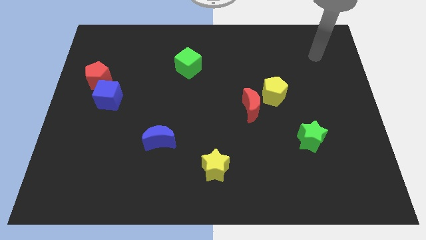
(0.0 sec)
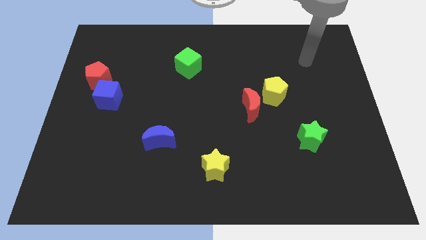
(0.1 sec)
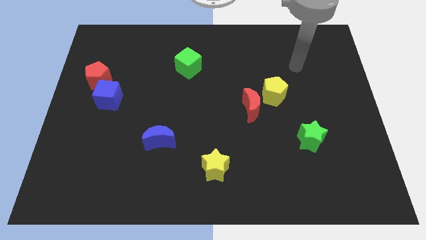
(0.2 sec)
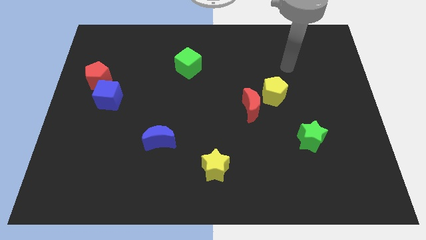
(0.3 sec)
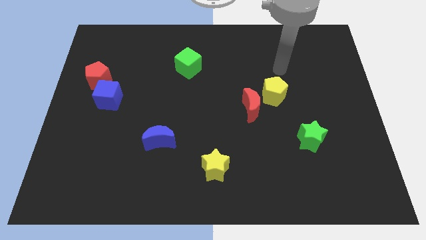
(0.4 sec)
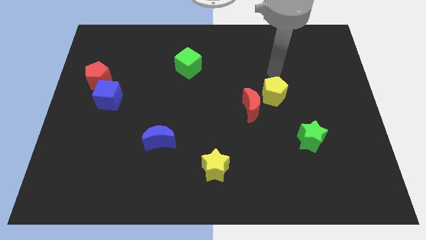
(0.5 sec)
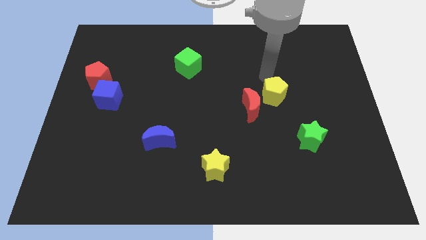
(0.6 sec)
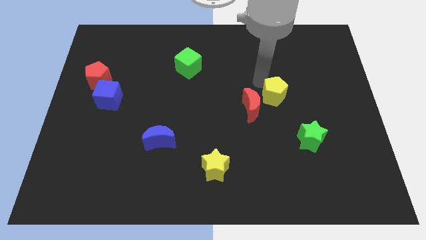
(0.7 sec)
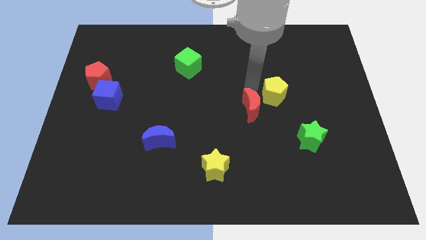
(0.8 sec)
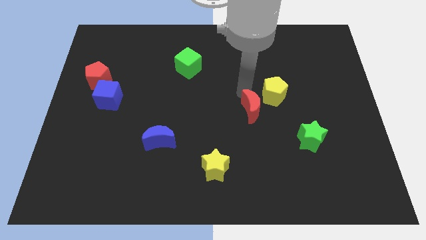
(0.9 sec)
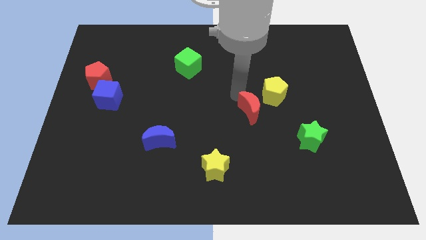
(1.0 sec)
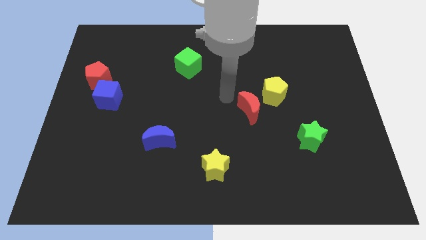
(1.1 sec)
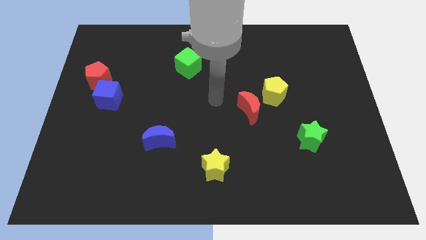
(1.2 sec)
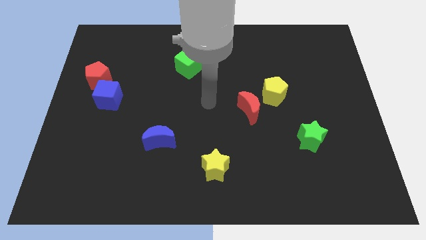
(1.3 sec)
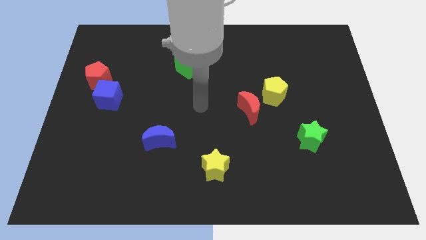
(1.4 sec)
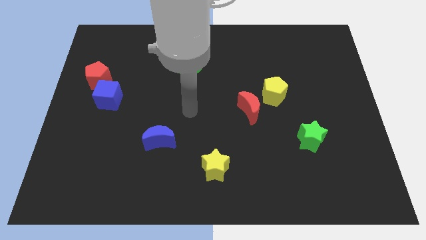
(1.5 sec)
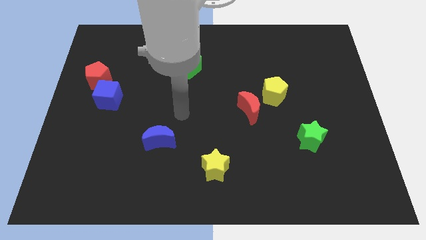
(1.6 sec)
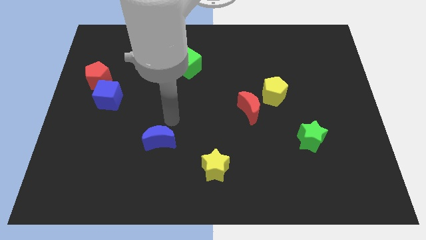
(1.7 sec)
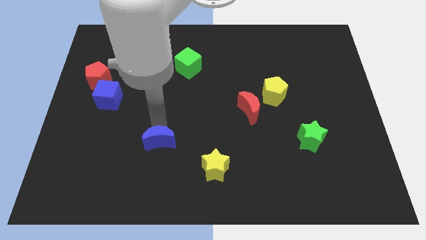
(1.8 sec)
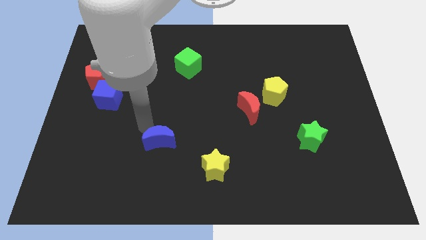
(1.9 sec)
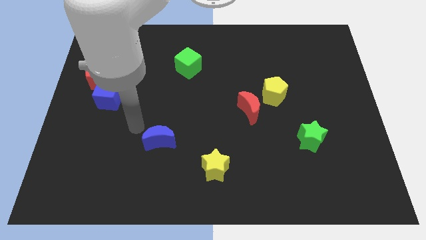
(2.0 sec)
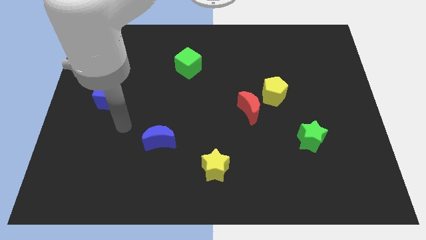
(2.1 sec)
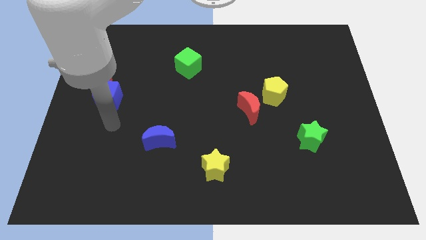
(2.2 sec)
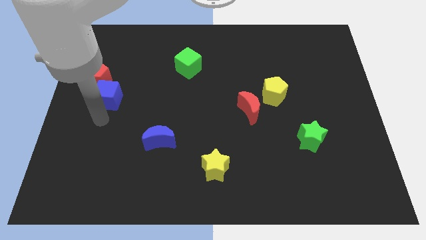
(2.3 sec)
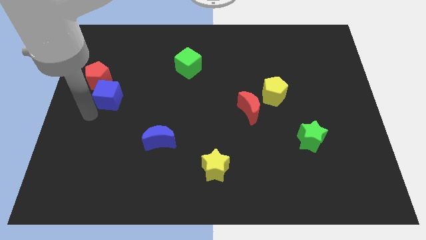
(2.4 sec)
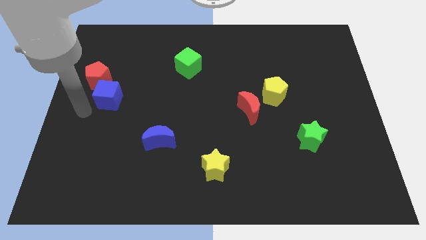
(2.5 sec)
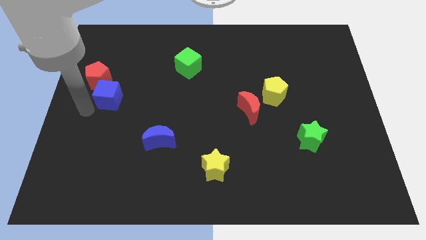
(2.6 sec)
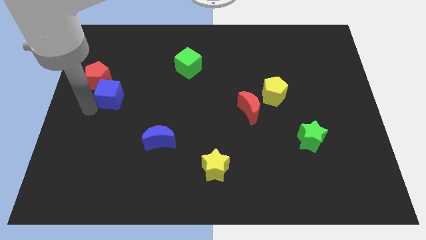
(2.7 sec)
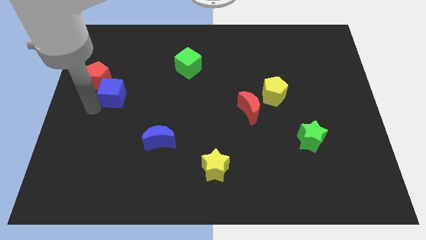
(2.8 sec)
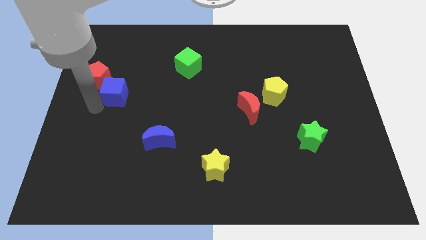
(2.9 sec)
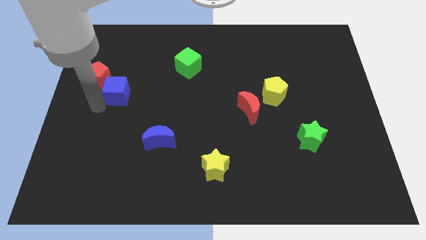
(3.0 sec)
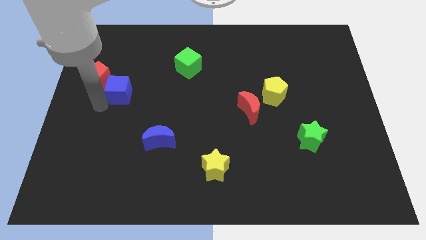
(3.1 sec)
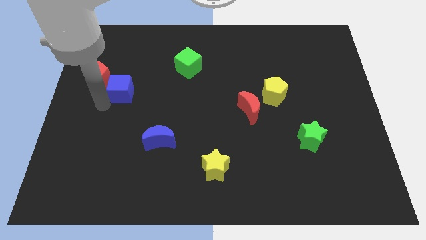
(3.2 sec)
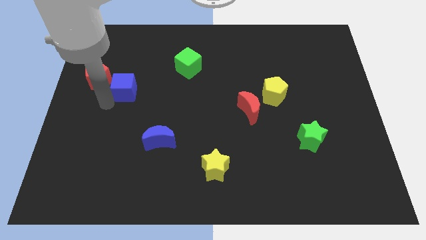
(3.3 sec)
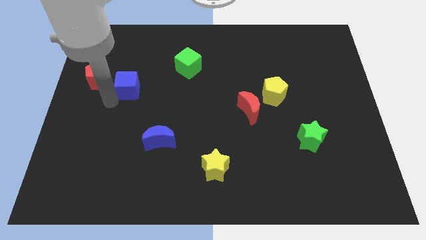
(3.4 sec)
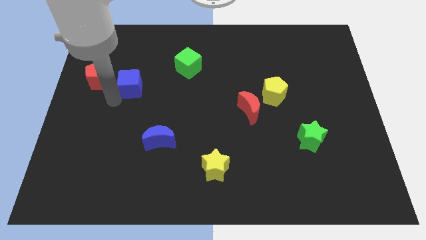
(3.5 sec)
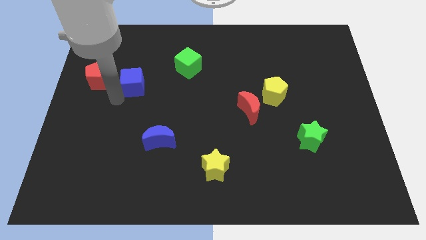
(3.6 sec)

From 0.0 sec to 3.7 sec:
slightly push the blue cube diagonally upwards and to the right

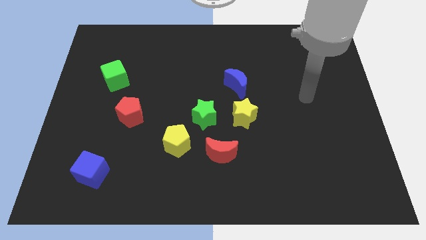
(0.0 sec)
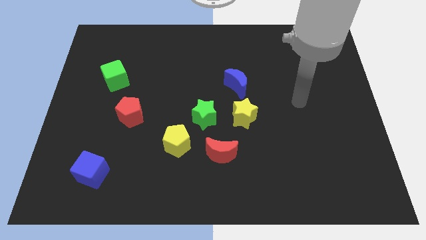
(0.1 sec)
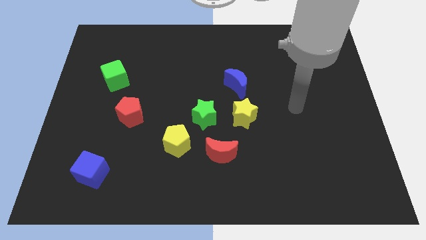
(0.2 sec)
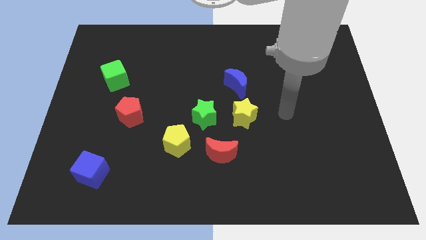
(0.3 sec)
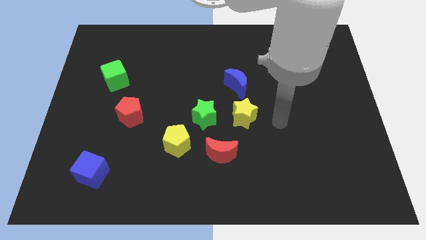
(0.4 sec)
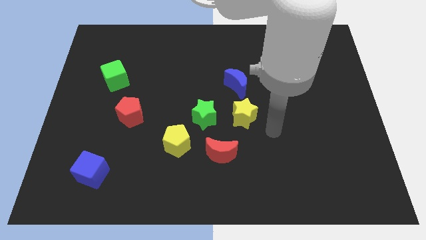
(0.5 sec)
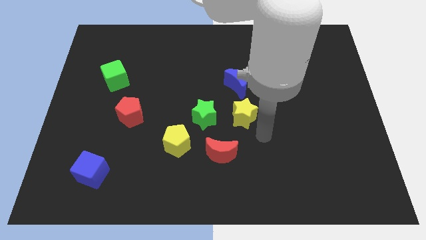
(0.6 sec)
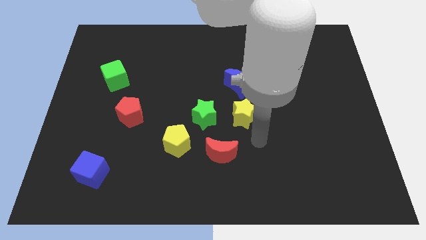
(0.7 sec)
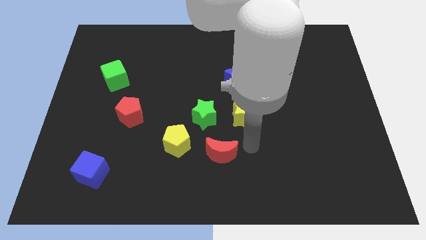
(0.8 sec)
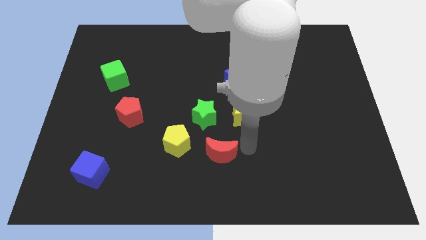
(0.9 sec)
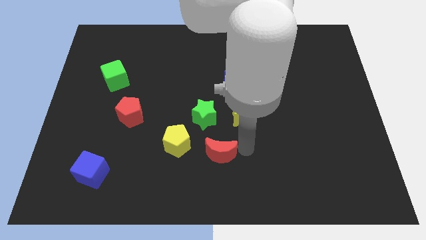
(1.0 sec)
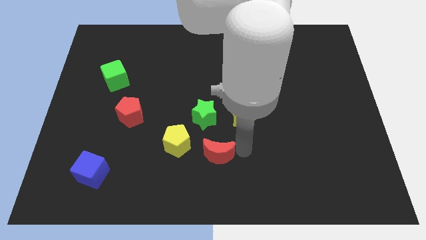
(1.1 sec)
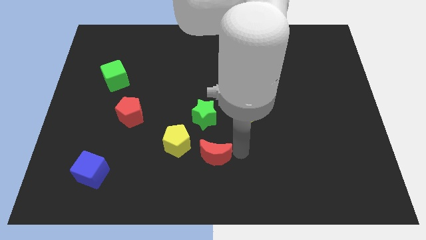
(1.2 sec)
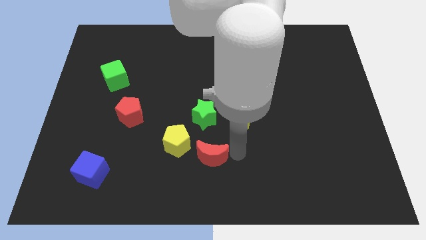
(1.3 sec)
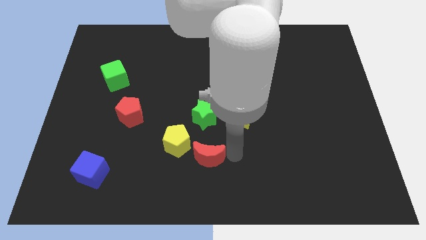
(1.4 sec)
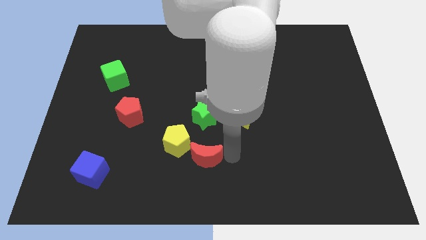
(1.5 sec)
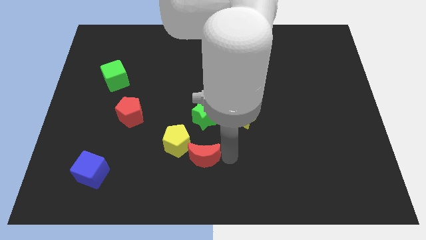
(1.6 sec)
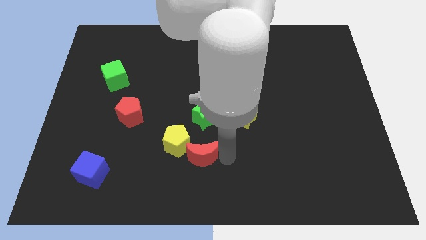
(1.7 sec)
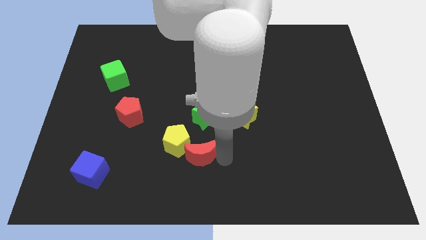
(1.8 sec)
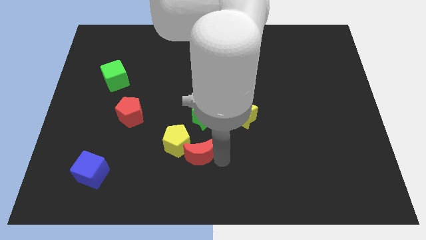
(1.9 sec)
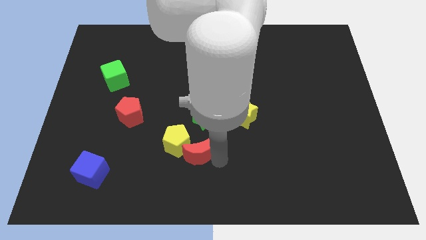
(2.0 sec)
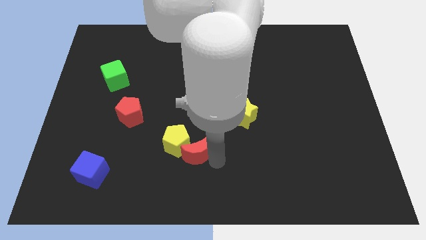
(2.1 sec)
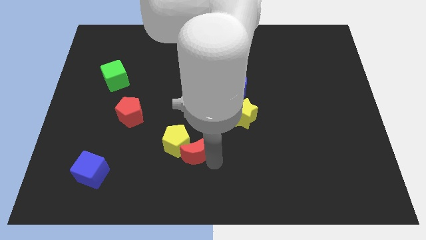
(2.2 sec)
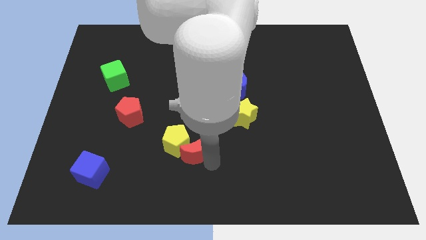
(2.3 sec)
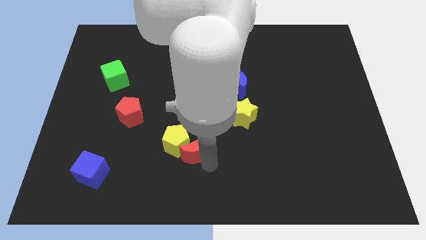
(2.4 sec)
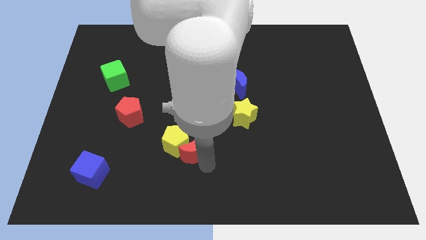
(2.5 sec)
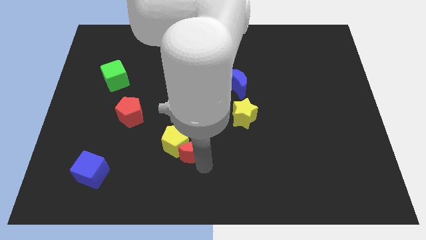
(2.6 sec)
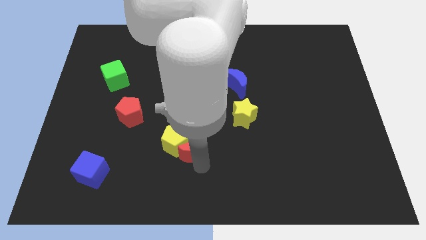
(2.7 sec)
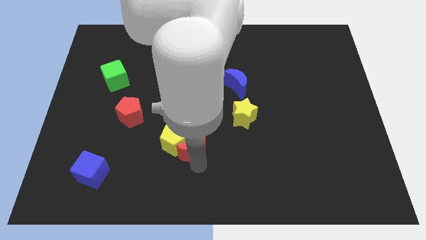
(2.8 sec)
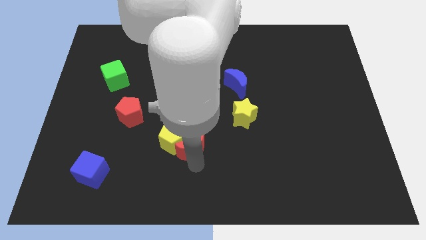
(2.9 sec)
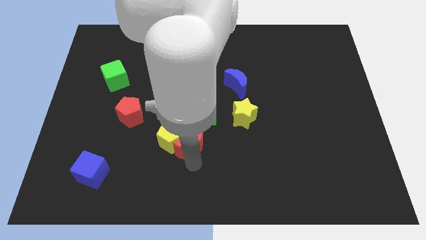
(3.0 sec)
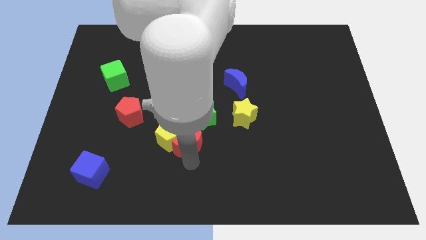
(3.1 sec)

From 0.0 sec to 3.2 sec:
slide the red moon a bit to the left

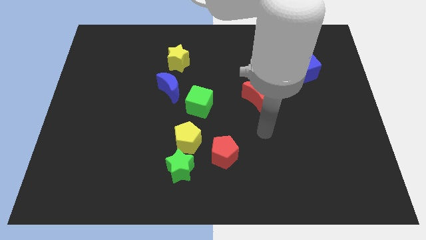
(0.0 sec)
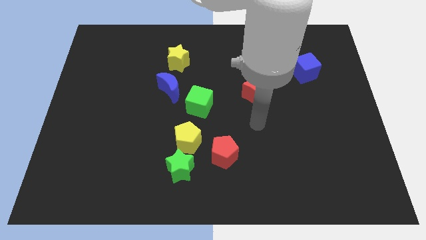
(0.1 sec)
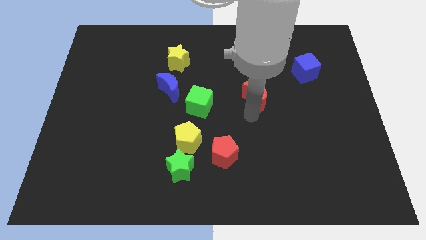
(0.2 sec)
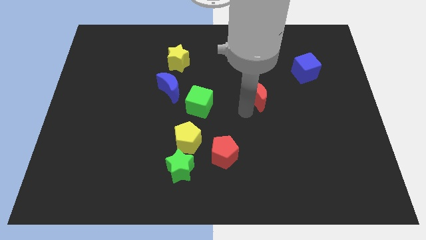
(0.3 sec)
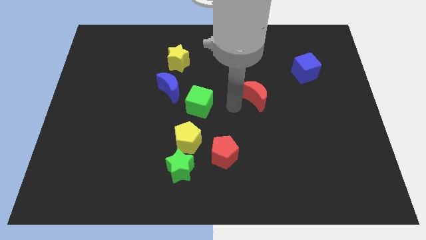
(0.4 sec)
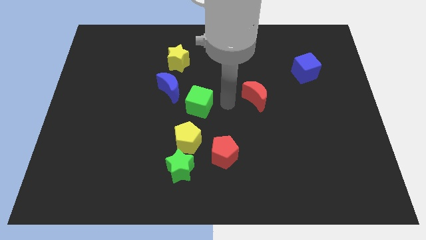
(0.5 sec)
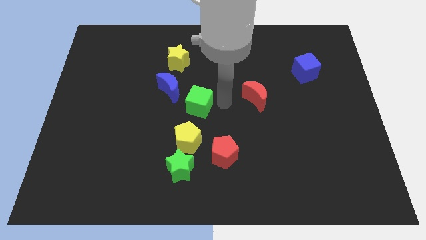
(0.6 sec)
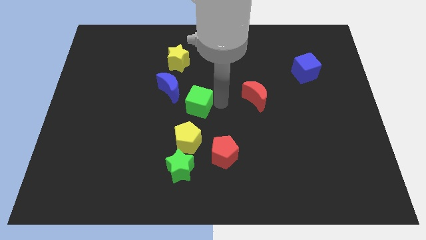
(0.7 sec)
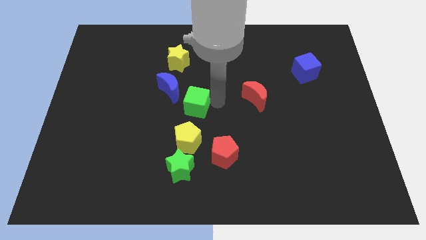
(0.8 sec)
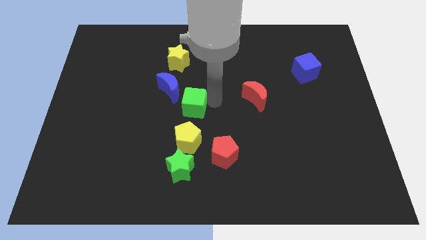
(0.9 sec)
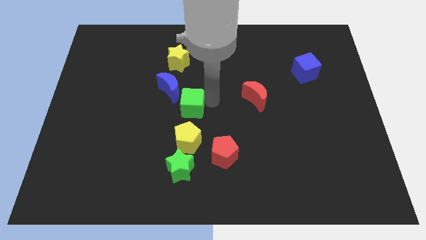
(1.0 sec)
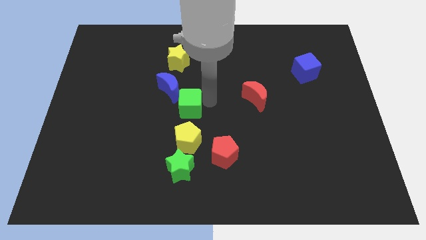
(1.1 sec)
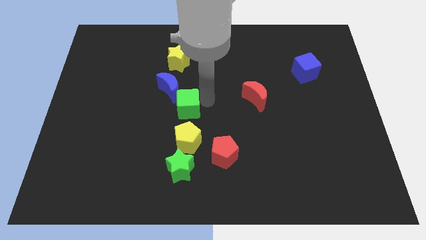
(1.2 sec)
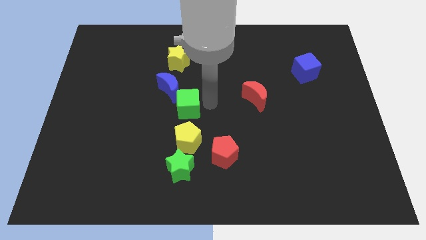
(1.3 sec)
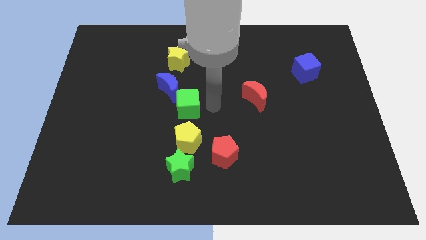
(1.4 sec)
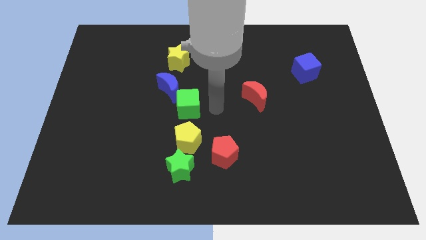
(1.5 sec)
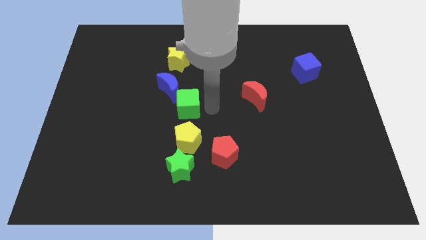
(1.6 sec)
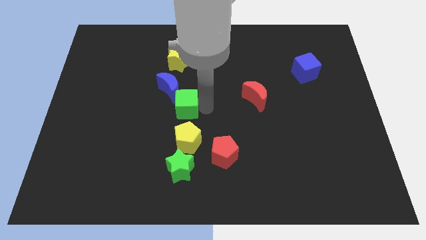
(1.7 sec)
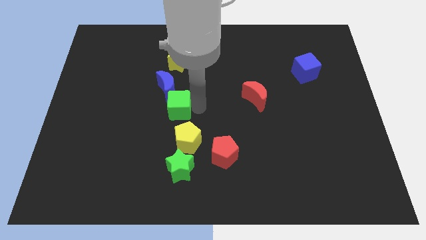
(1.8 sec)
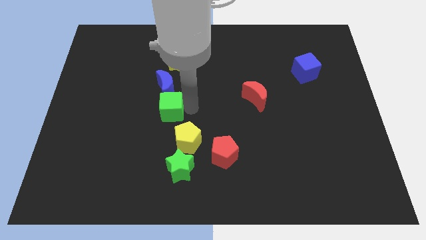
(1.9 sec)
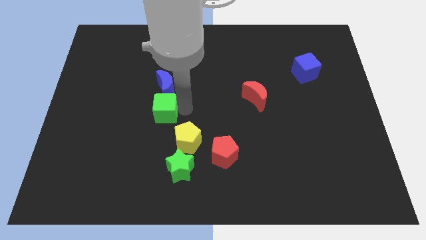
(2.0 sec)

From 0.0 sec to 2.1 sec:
slide the green cube left a little bit
